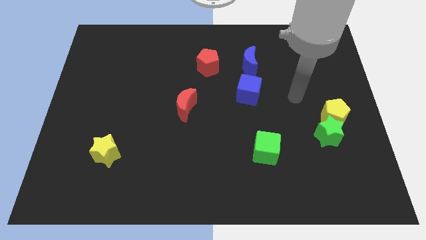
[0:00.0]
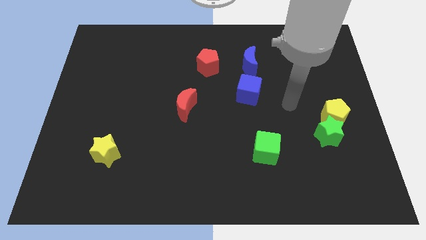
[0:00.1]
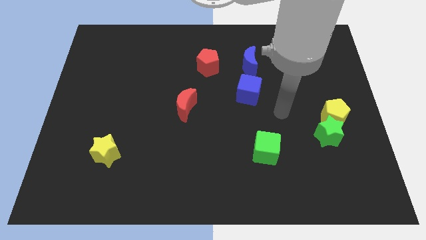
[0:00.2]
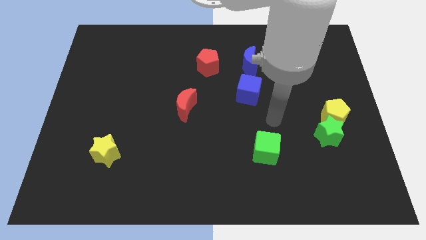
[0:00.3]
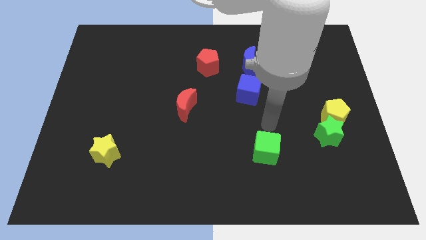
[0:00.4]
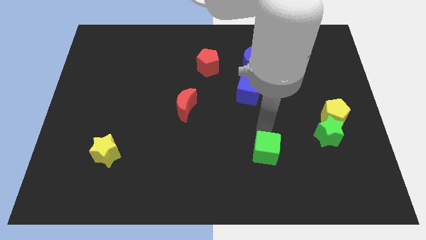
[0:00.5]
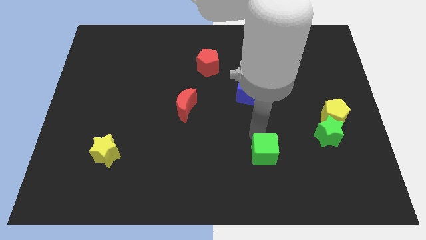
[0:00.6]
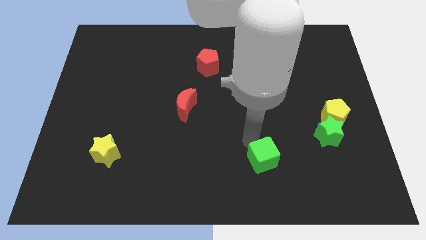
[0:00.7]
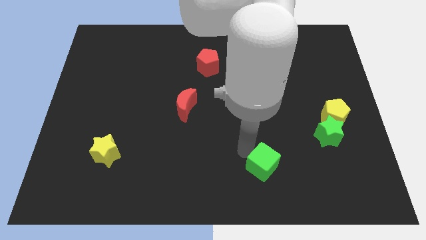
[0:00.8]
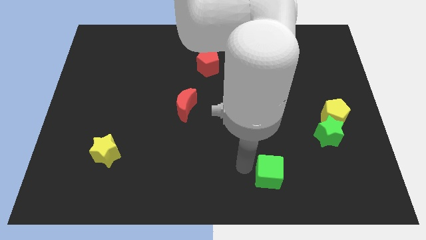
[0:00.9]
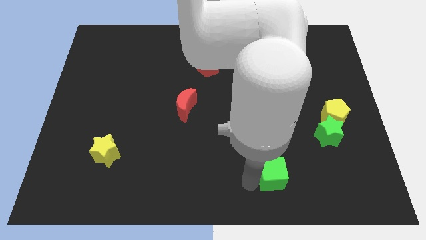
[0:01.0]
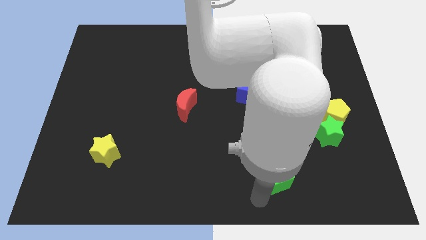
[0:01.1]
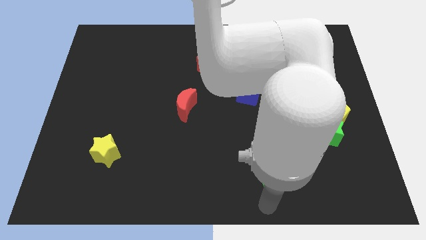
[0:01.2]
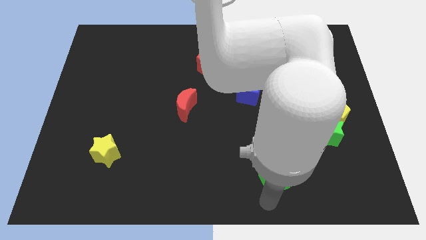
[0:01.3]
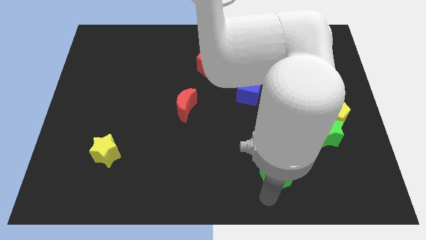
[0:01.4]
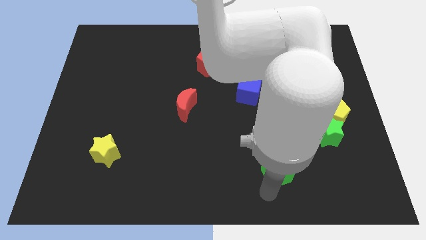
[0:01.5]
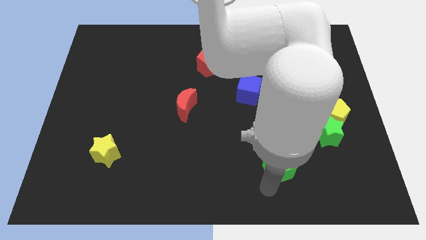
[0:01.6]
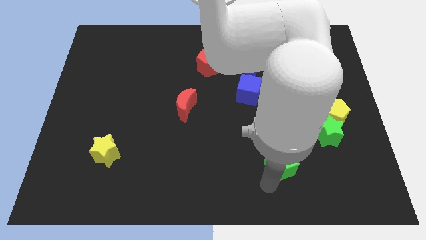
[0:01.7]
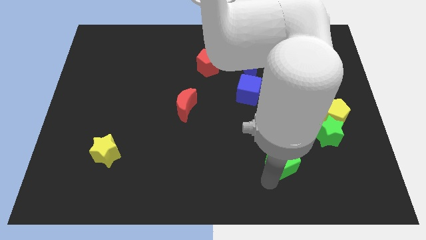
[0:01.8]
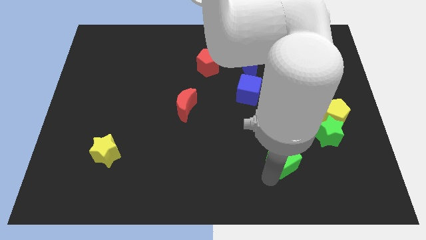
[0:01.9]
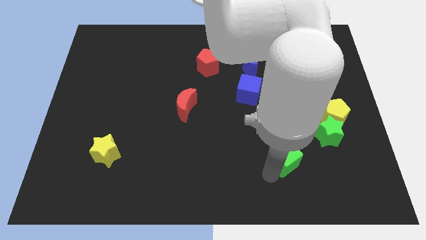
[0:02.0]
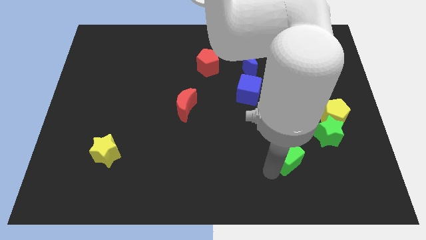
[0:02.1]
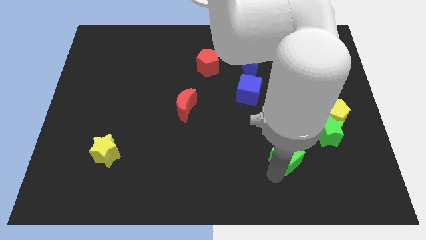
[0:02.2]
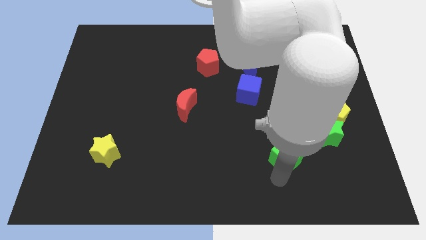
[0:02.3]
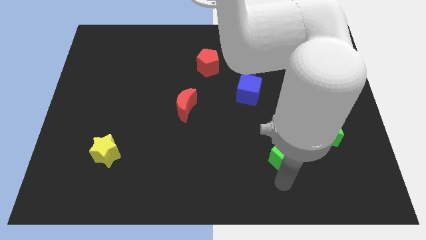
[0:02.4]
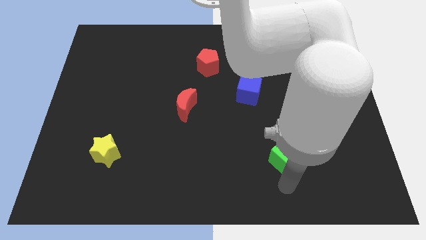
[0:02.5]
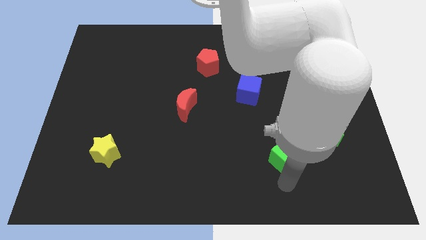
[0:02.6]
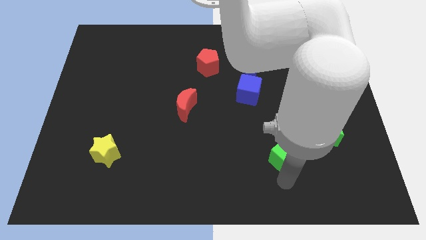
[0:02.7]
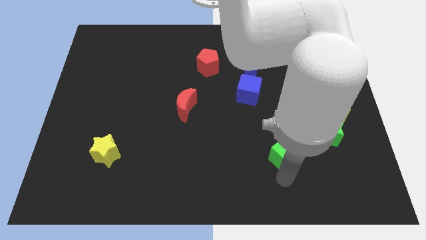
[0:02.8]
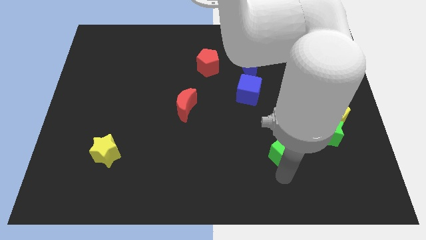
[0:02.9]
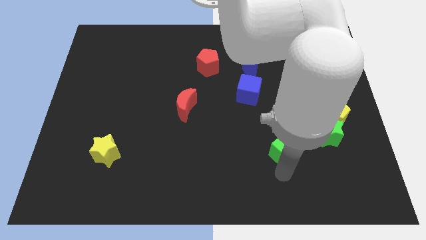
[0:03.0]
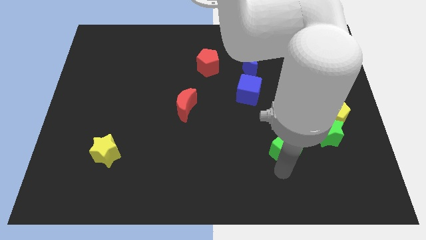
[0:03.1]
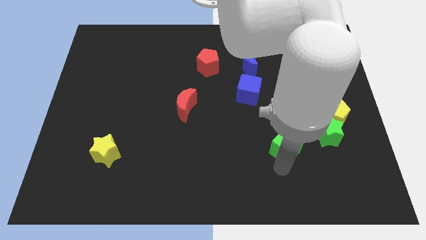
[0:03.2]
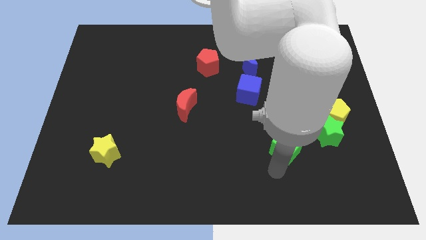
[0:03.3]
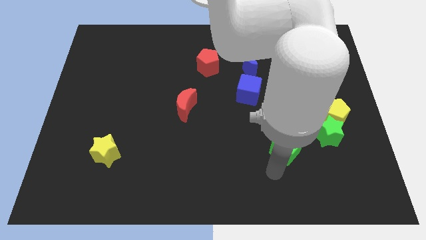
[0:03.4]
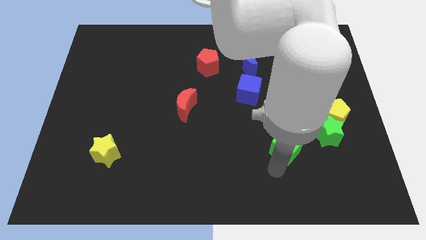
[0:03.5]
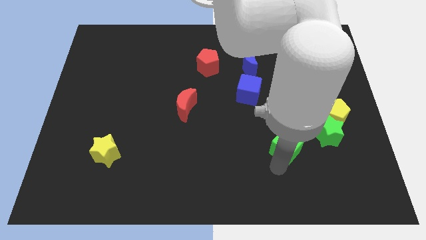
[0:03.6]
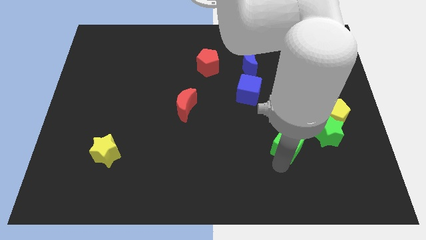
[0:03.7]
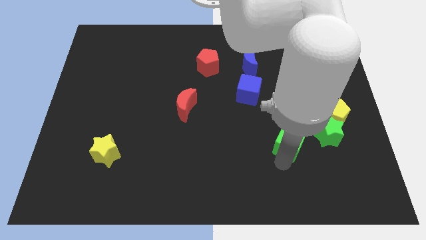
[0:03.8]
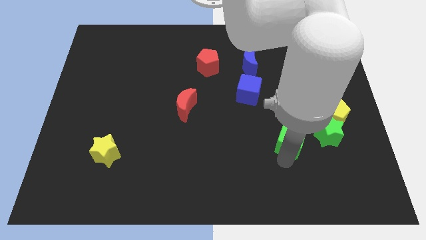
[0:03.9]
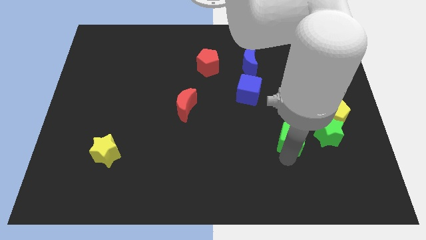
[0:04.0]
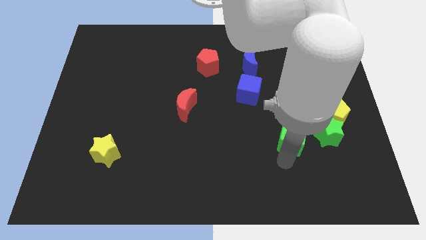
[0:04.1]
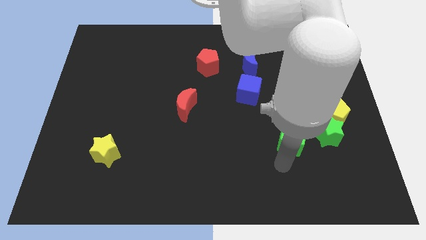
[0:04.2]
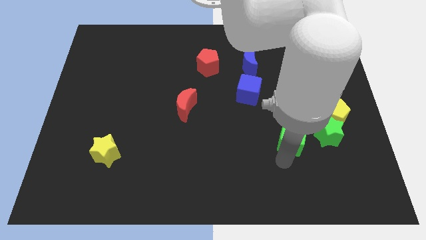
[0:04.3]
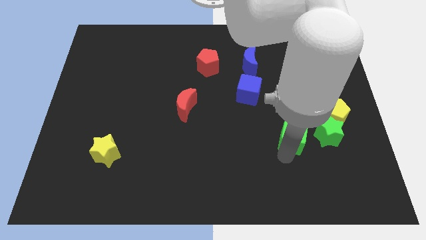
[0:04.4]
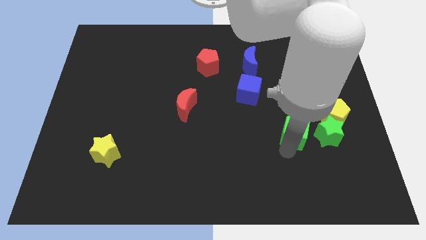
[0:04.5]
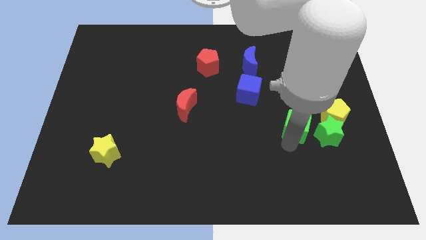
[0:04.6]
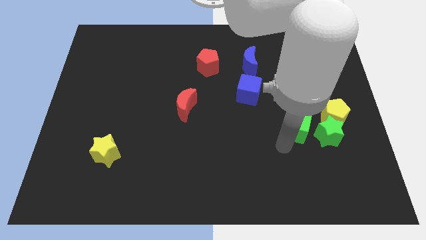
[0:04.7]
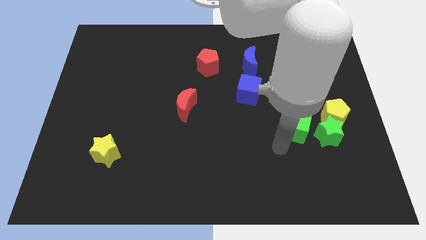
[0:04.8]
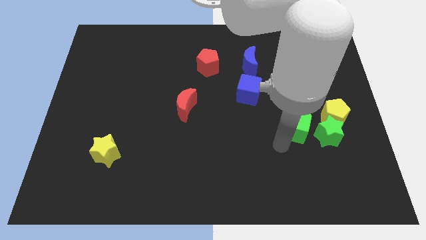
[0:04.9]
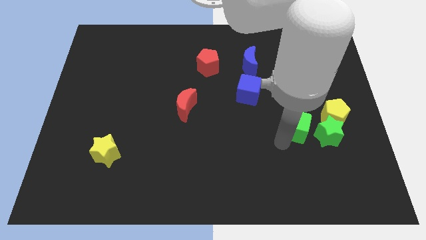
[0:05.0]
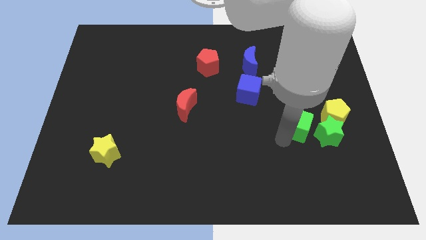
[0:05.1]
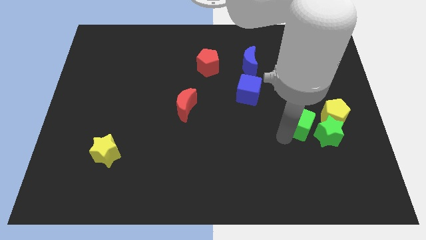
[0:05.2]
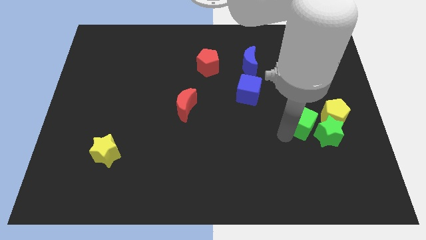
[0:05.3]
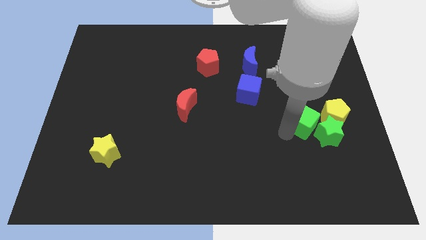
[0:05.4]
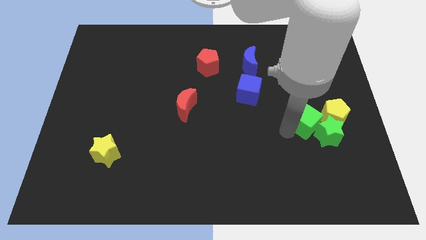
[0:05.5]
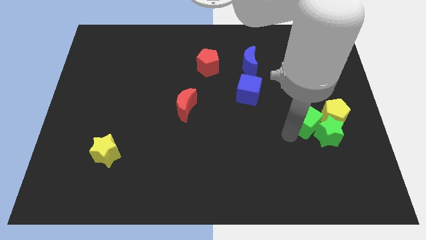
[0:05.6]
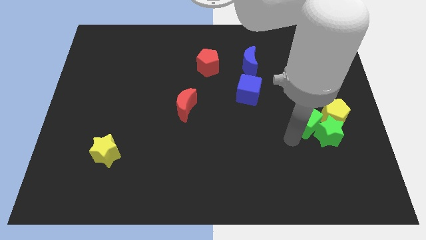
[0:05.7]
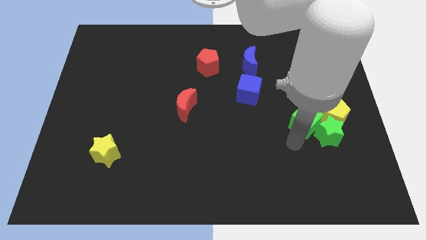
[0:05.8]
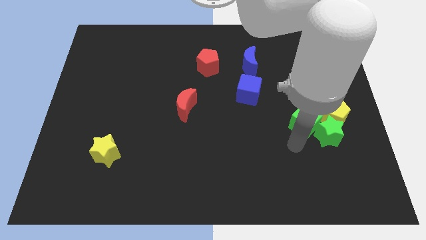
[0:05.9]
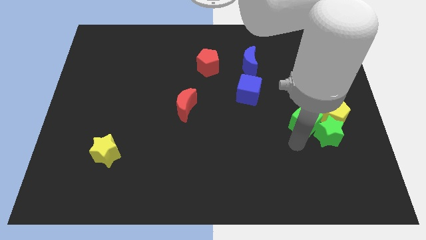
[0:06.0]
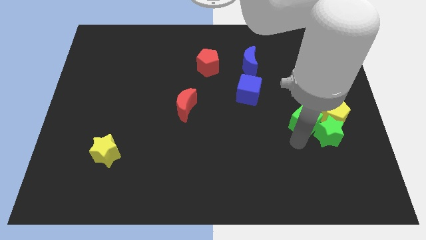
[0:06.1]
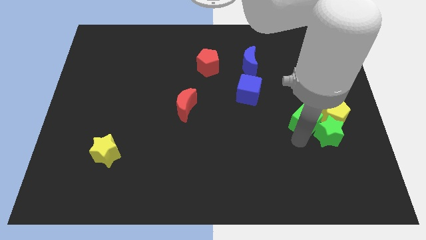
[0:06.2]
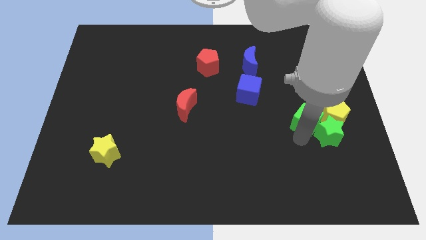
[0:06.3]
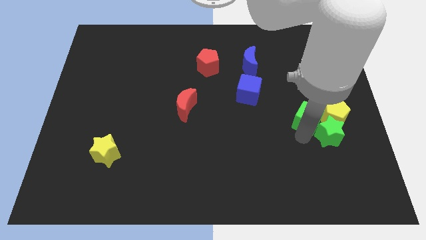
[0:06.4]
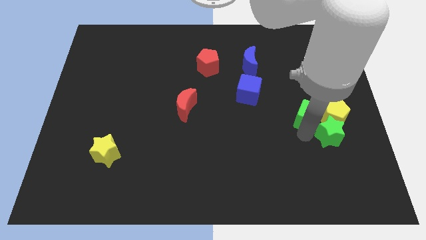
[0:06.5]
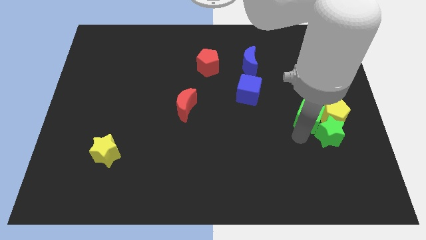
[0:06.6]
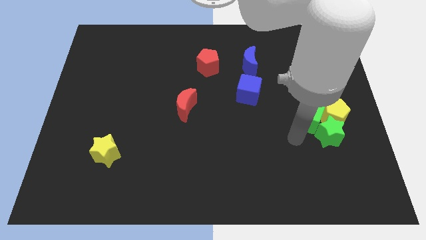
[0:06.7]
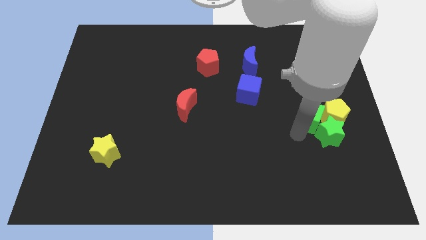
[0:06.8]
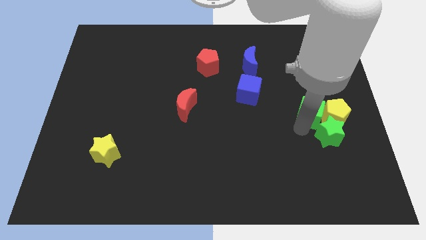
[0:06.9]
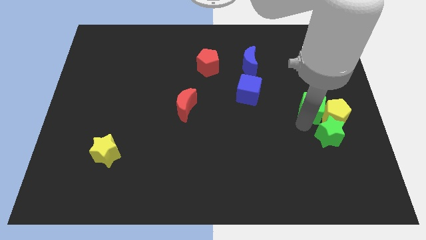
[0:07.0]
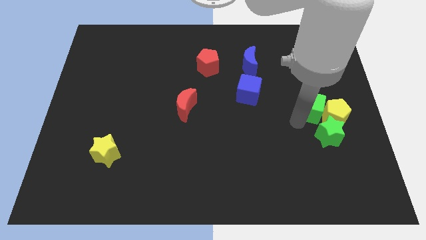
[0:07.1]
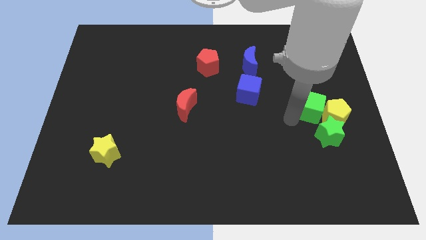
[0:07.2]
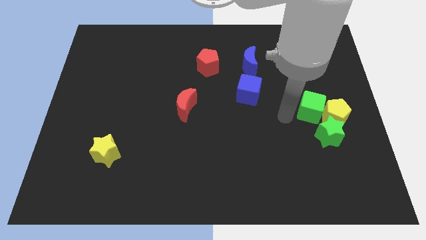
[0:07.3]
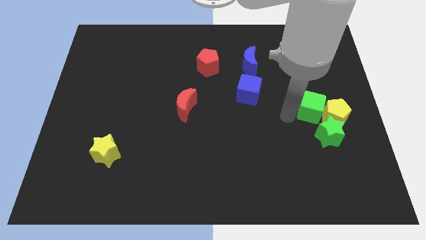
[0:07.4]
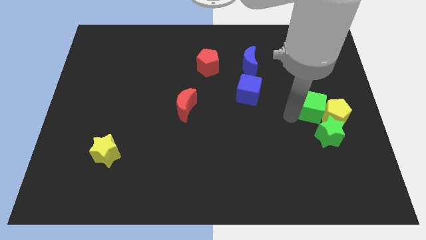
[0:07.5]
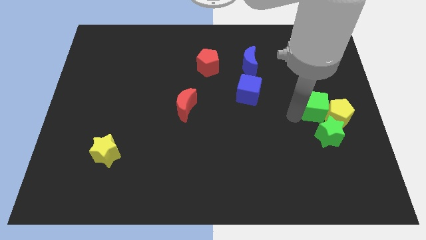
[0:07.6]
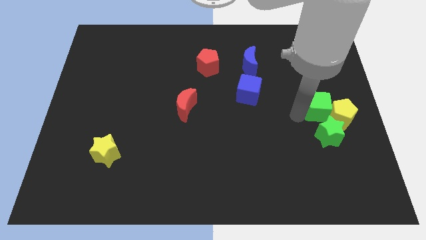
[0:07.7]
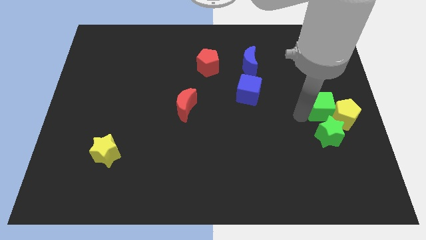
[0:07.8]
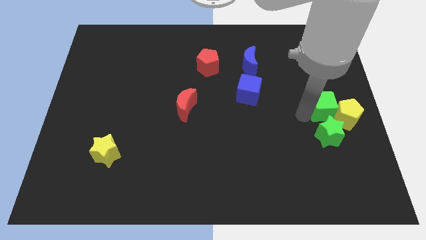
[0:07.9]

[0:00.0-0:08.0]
move the green cube to the center right
